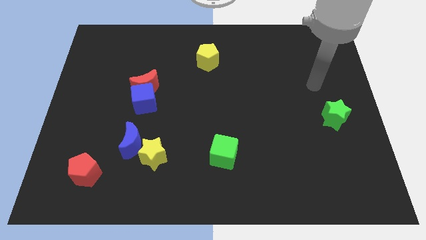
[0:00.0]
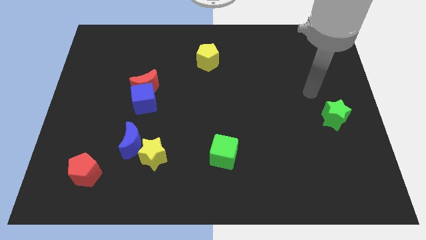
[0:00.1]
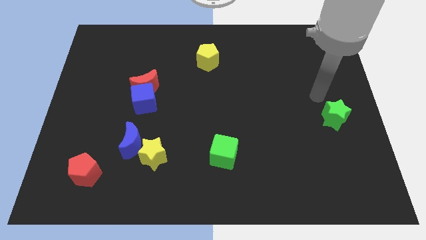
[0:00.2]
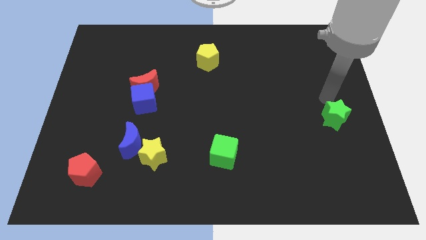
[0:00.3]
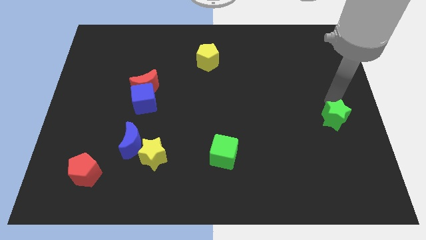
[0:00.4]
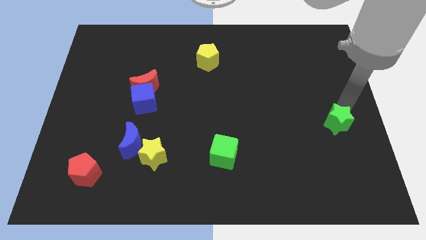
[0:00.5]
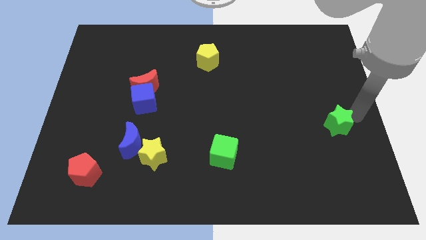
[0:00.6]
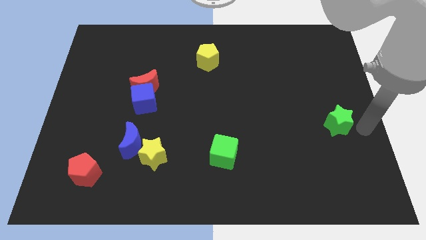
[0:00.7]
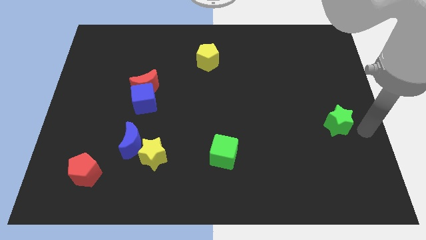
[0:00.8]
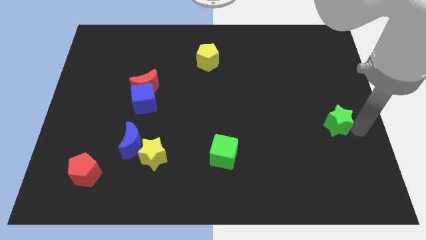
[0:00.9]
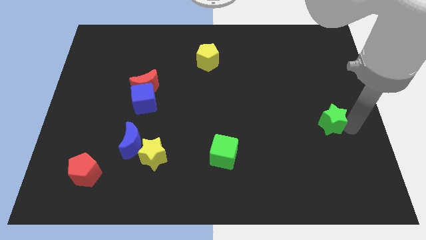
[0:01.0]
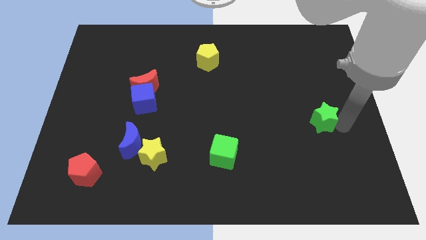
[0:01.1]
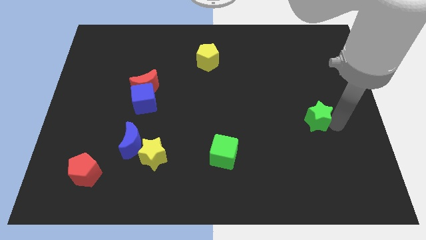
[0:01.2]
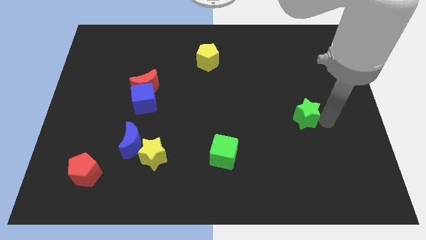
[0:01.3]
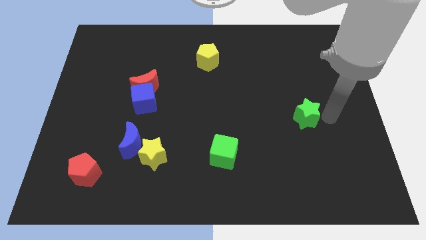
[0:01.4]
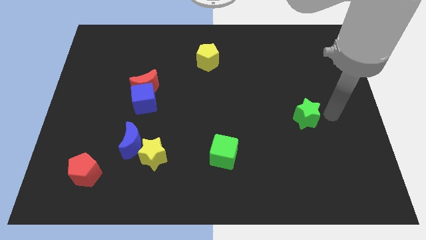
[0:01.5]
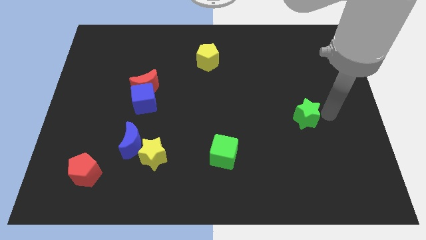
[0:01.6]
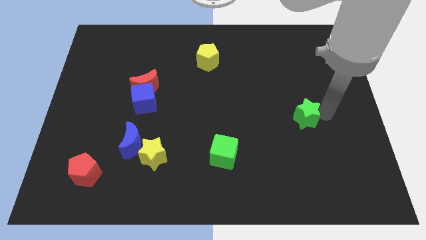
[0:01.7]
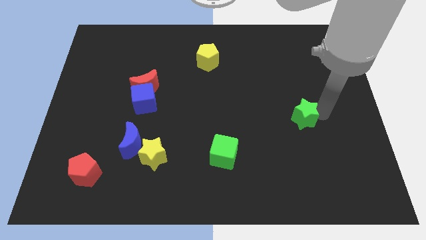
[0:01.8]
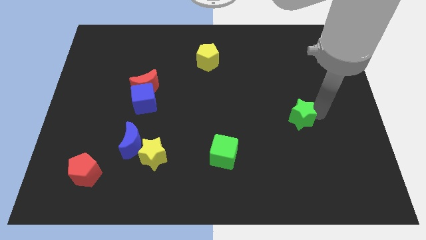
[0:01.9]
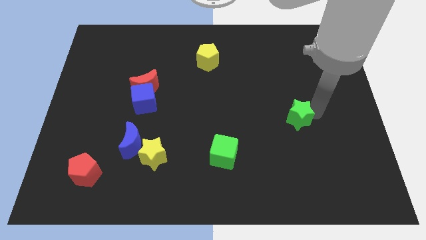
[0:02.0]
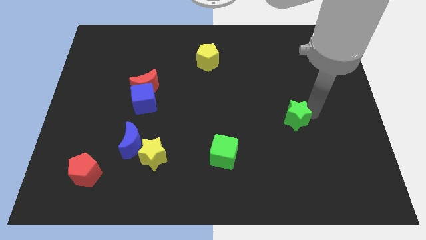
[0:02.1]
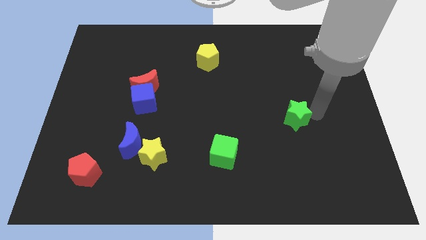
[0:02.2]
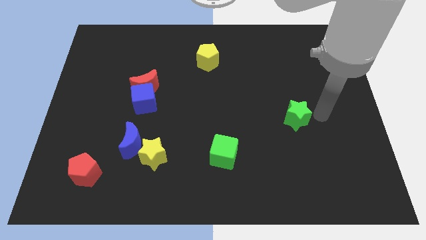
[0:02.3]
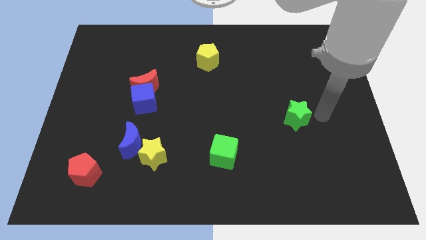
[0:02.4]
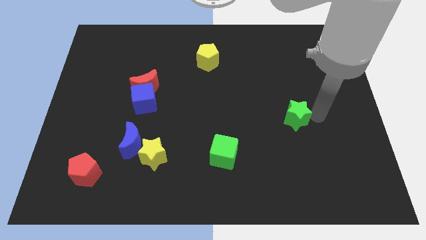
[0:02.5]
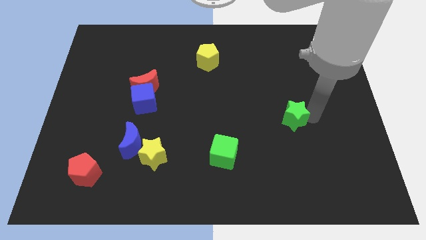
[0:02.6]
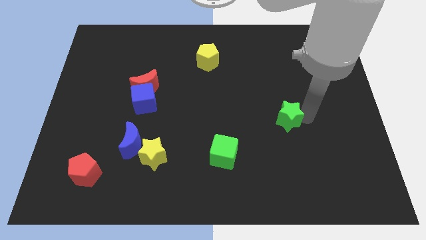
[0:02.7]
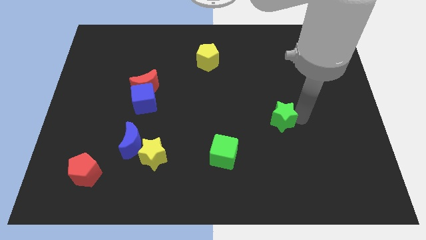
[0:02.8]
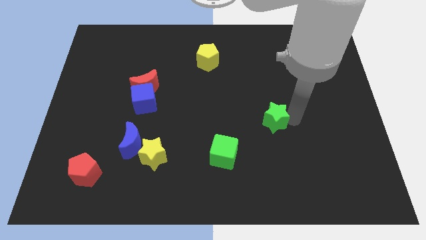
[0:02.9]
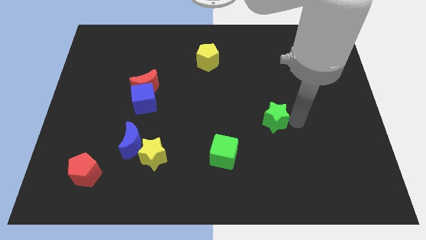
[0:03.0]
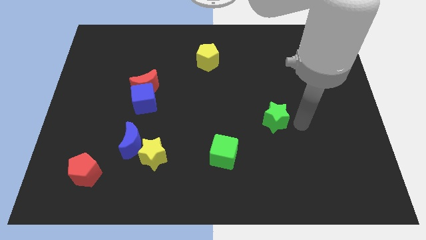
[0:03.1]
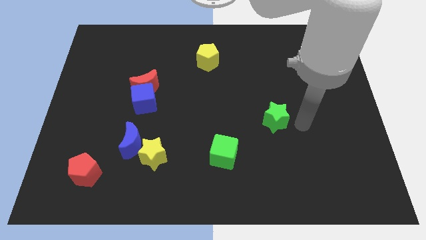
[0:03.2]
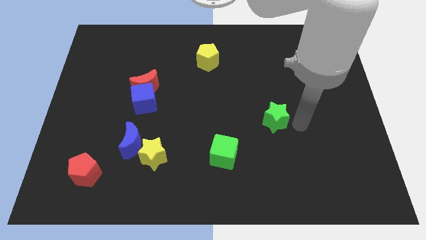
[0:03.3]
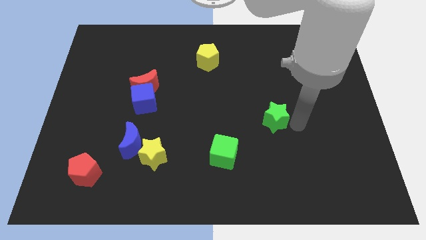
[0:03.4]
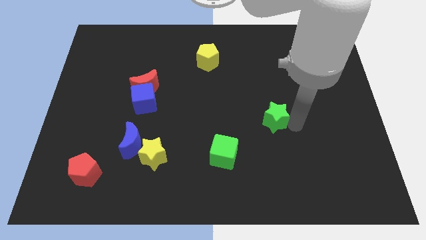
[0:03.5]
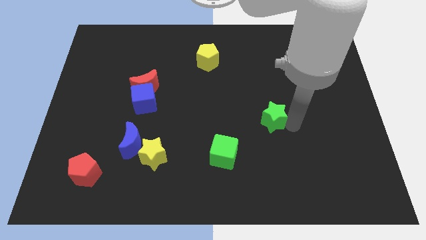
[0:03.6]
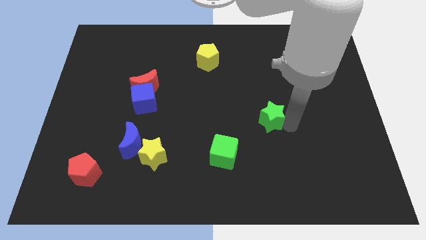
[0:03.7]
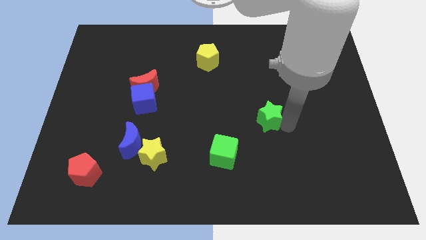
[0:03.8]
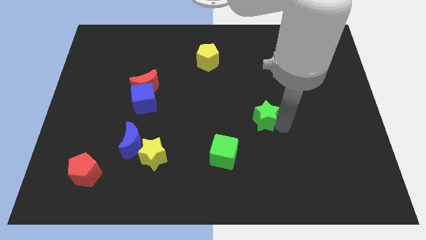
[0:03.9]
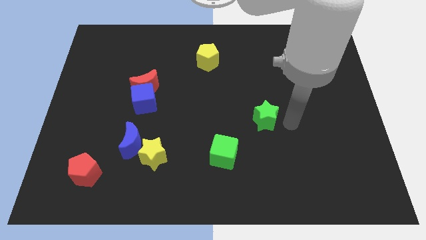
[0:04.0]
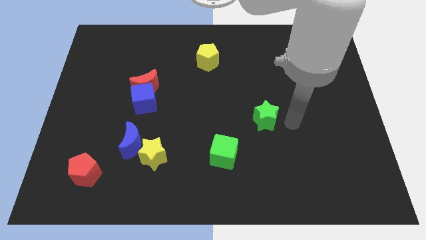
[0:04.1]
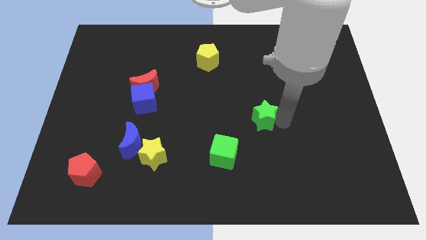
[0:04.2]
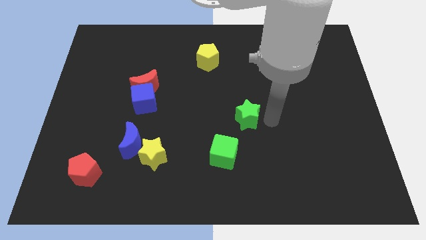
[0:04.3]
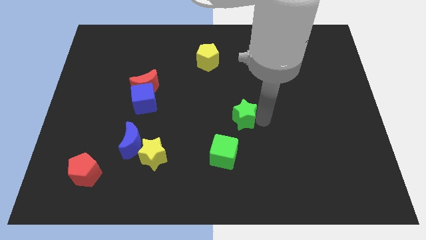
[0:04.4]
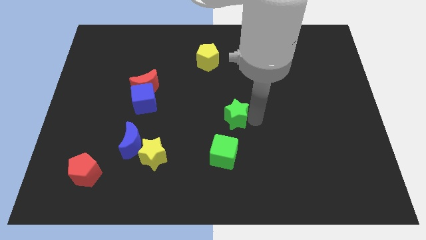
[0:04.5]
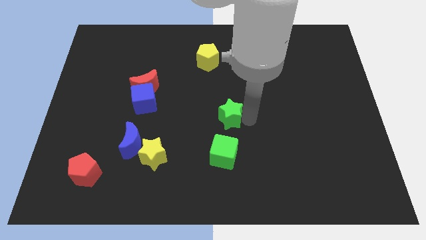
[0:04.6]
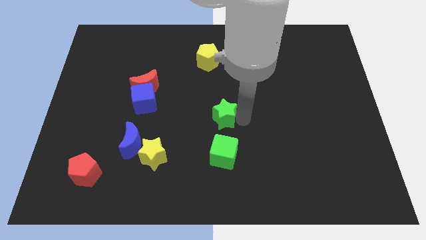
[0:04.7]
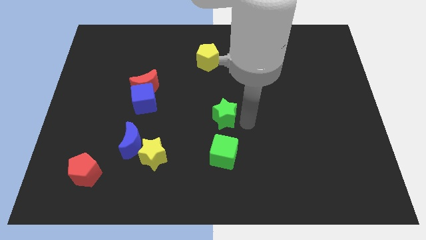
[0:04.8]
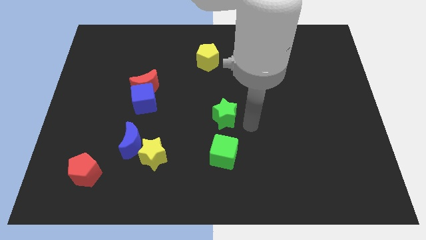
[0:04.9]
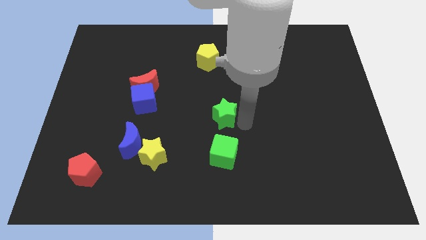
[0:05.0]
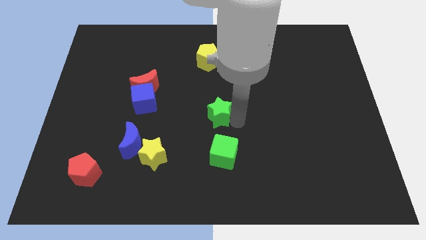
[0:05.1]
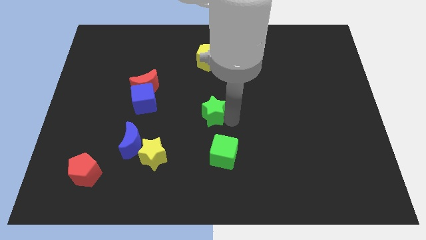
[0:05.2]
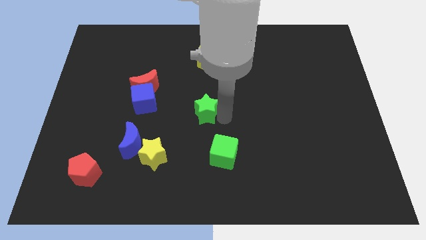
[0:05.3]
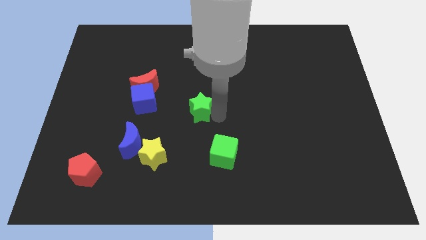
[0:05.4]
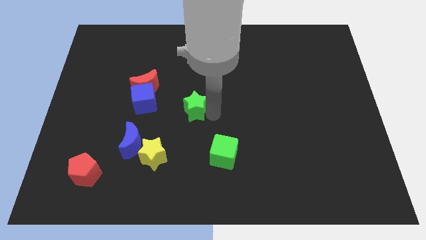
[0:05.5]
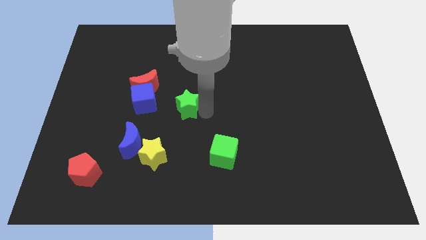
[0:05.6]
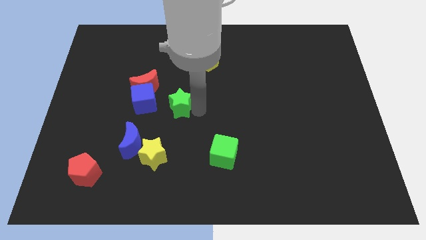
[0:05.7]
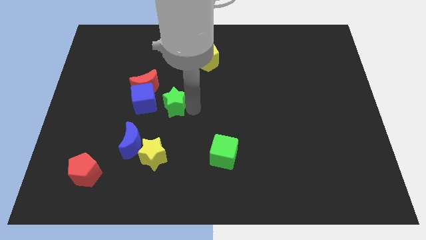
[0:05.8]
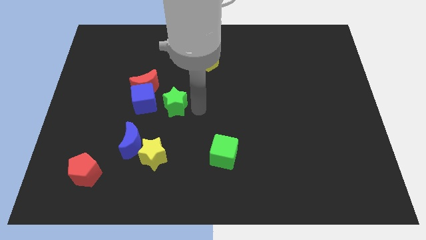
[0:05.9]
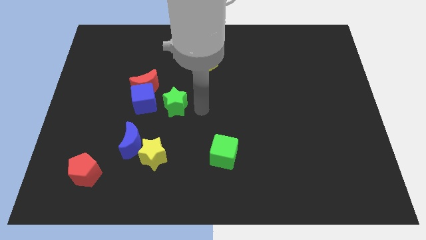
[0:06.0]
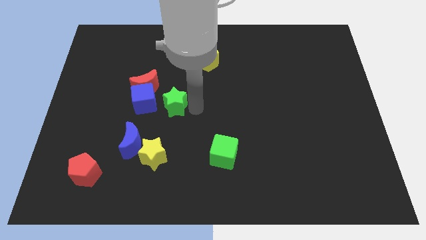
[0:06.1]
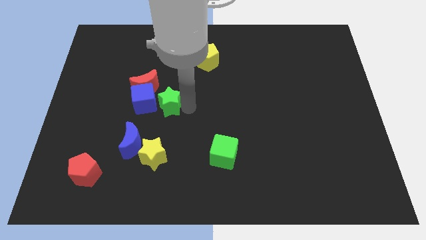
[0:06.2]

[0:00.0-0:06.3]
put the green star to the blue cube

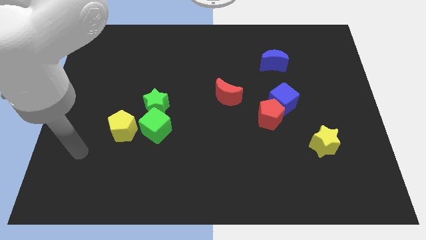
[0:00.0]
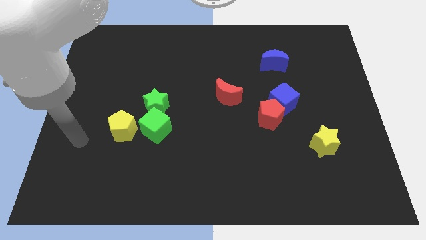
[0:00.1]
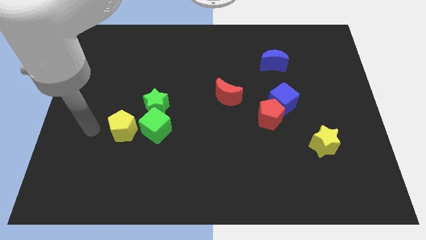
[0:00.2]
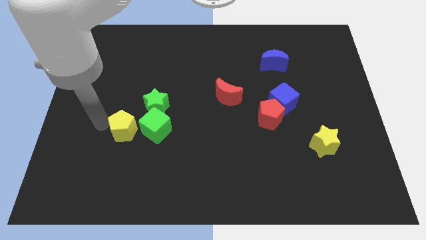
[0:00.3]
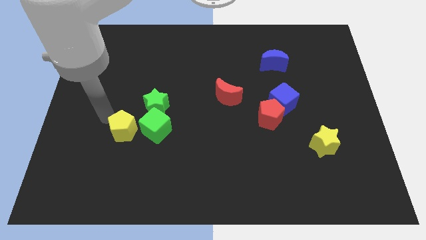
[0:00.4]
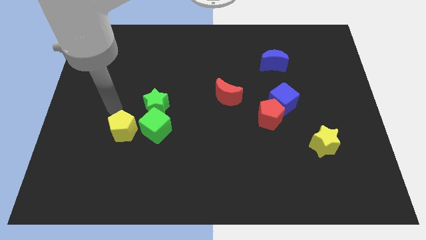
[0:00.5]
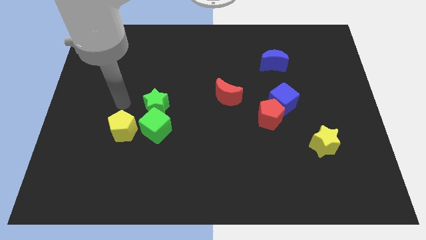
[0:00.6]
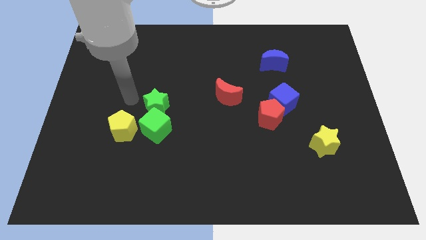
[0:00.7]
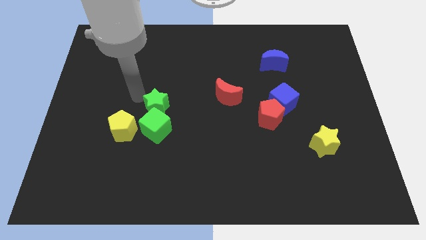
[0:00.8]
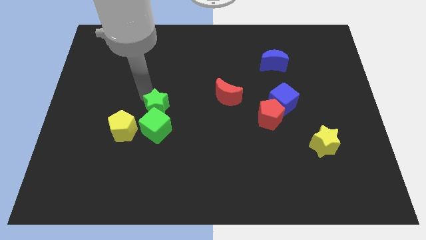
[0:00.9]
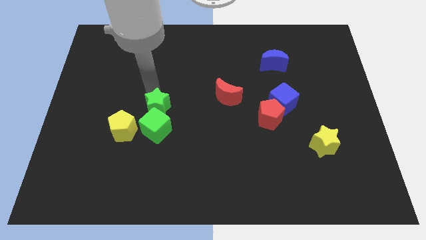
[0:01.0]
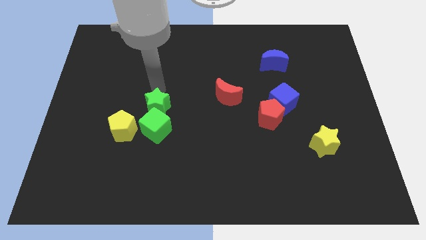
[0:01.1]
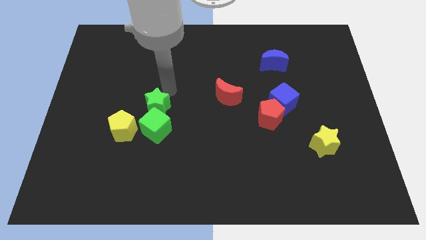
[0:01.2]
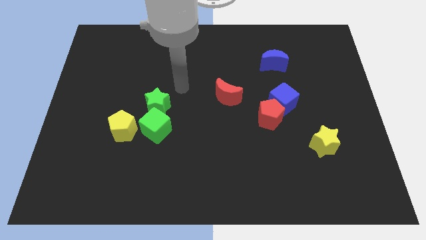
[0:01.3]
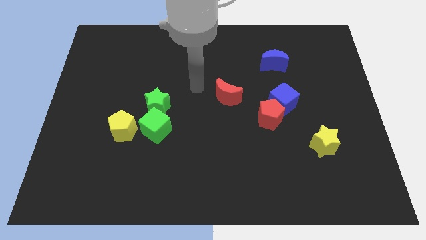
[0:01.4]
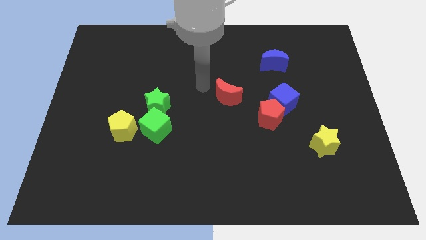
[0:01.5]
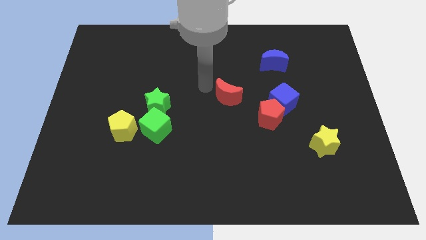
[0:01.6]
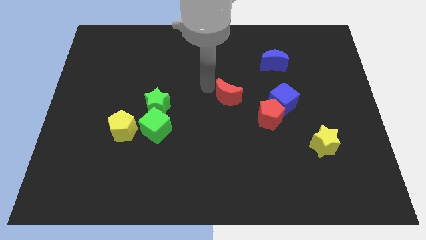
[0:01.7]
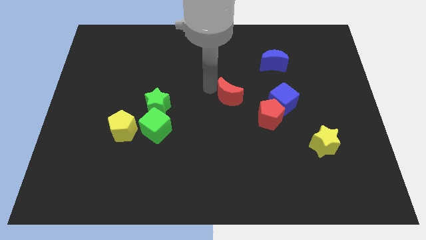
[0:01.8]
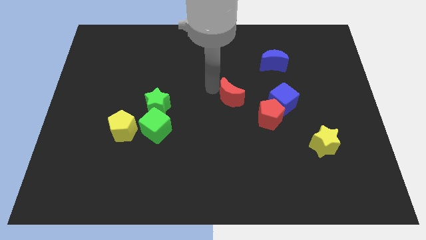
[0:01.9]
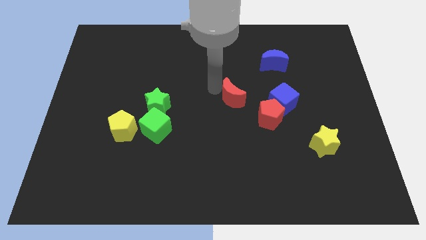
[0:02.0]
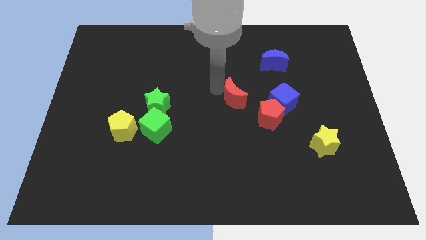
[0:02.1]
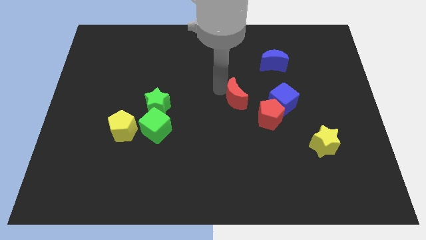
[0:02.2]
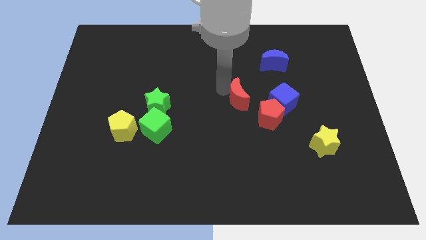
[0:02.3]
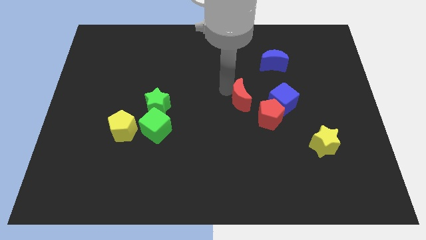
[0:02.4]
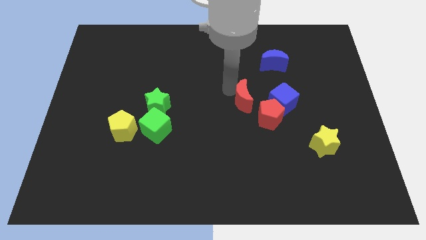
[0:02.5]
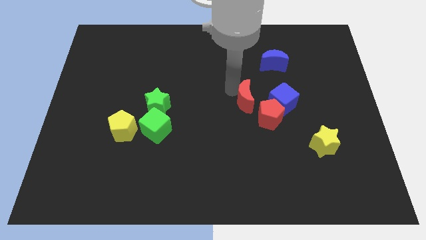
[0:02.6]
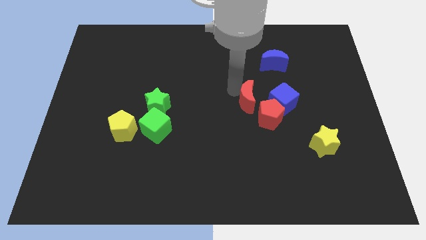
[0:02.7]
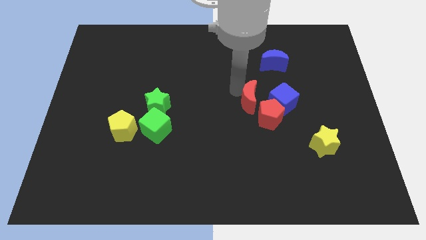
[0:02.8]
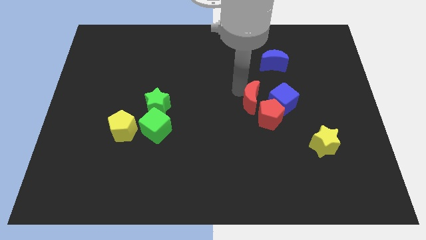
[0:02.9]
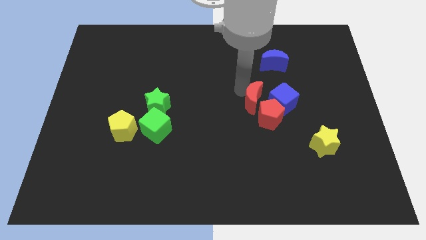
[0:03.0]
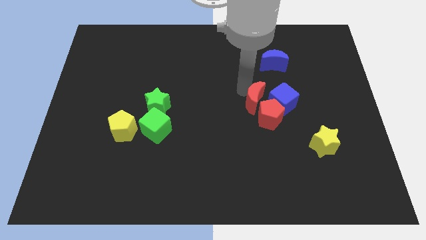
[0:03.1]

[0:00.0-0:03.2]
push the red moon to the red pentagon
